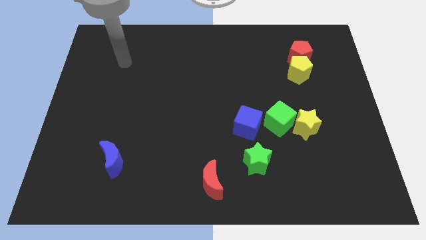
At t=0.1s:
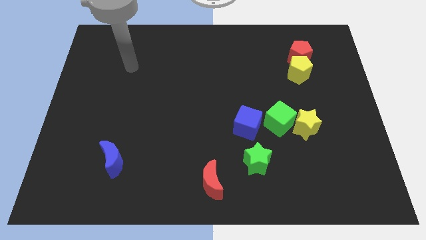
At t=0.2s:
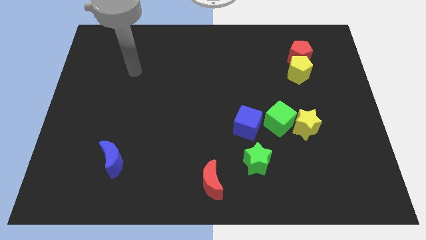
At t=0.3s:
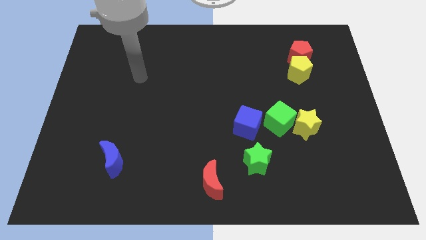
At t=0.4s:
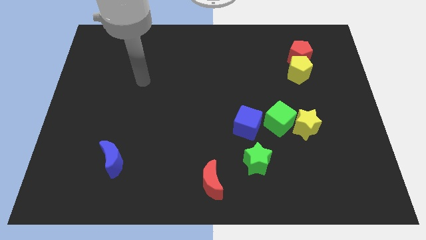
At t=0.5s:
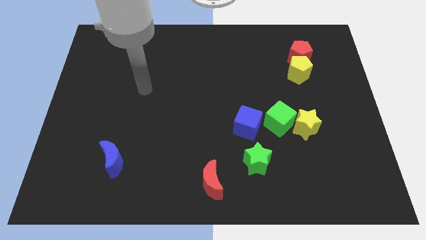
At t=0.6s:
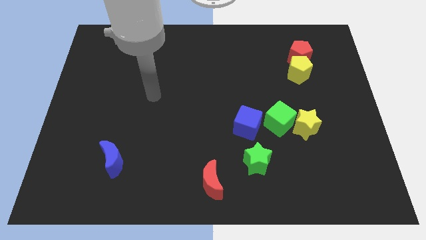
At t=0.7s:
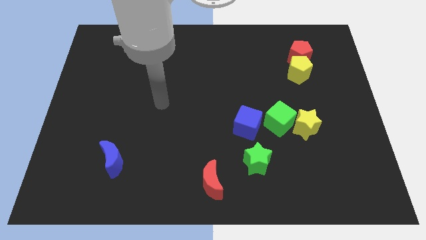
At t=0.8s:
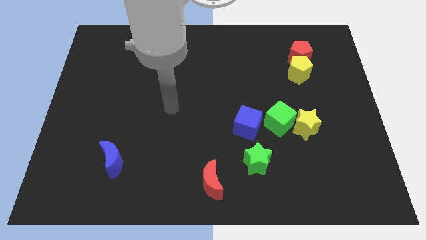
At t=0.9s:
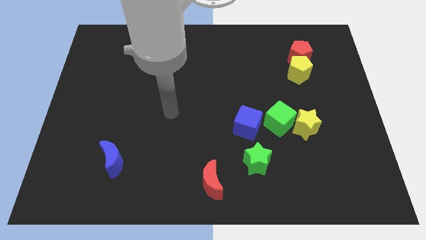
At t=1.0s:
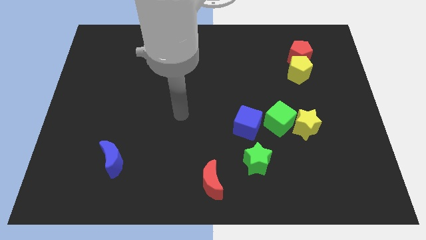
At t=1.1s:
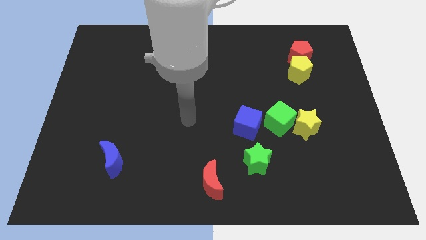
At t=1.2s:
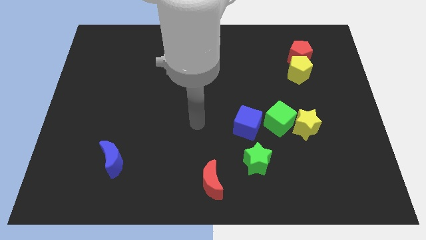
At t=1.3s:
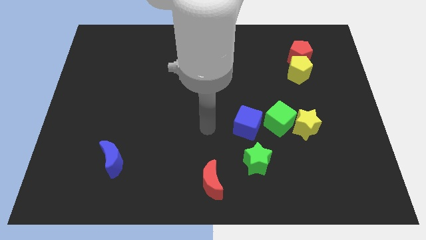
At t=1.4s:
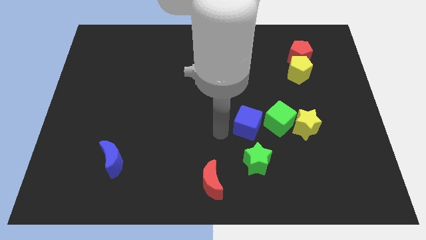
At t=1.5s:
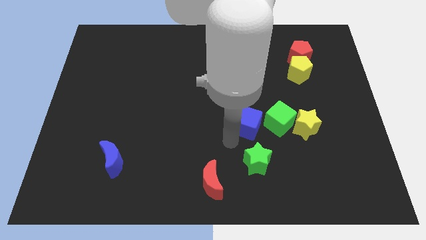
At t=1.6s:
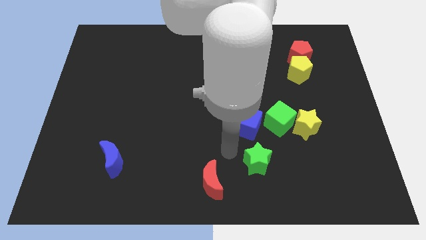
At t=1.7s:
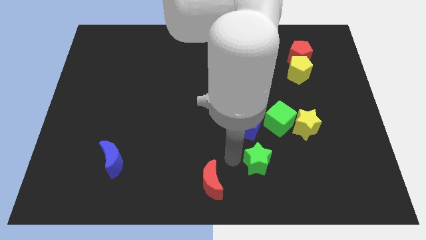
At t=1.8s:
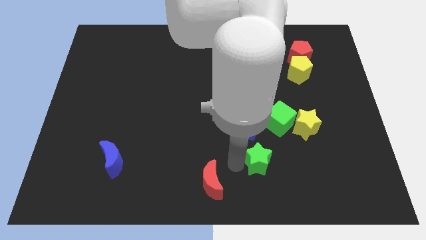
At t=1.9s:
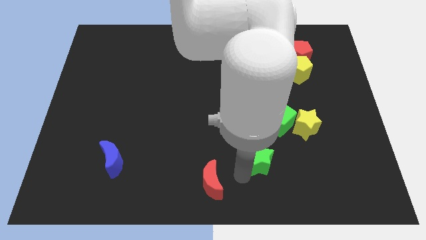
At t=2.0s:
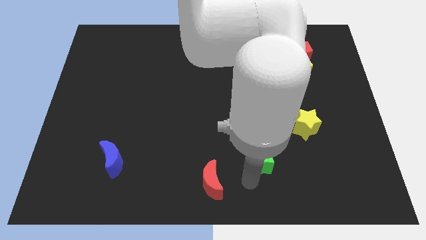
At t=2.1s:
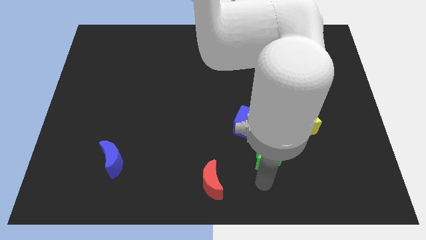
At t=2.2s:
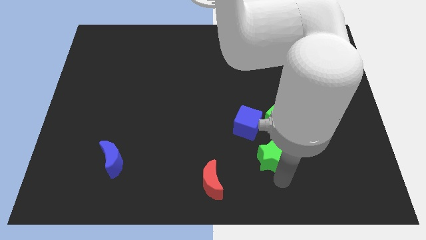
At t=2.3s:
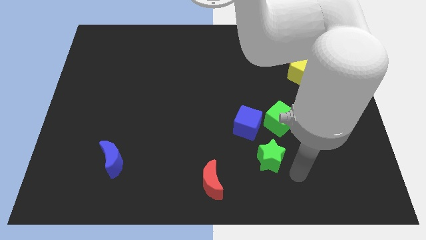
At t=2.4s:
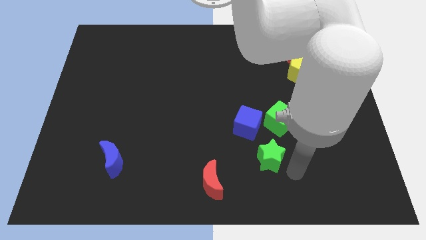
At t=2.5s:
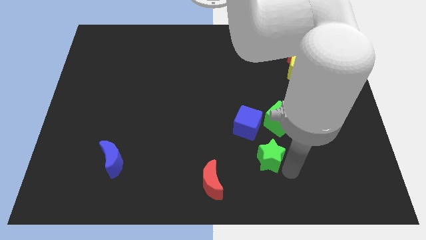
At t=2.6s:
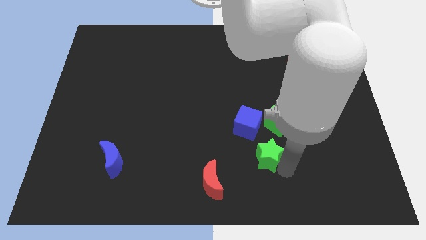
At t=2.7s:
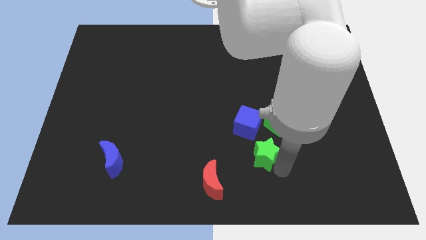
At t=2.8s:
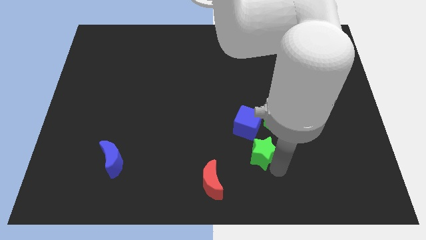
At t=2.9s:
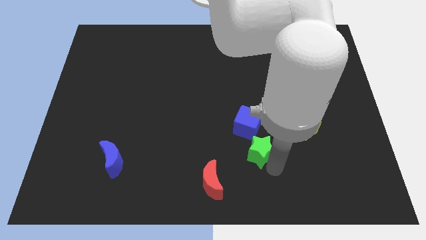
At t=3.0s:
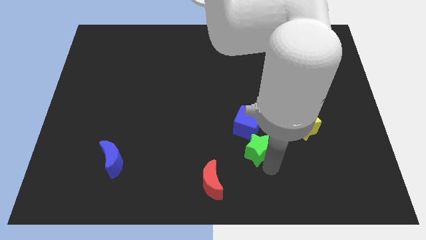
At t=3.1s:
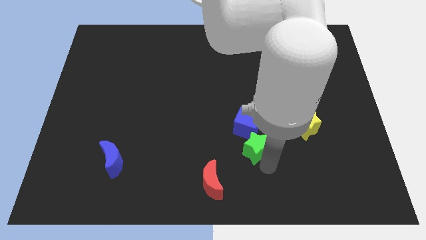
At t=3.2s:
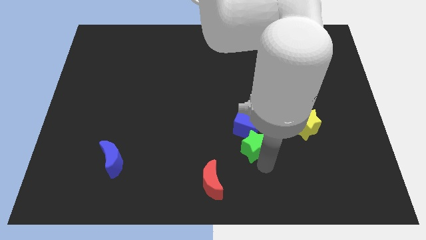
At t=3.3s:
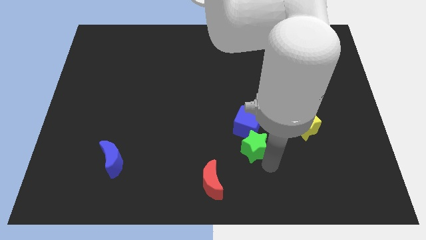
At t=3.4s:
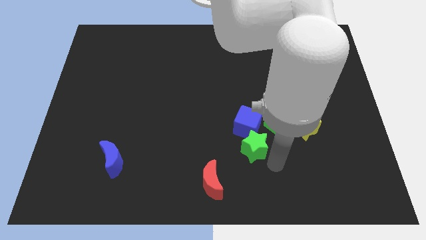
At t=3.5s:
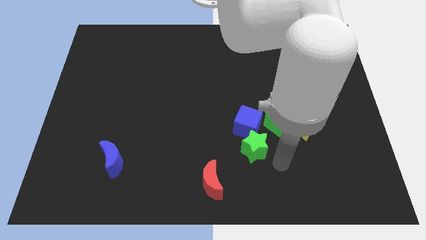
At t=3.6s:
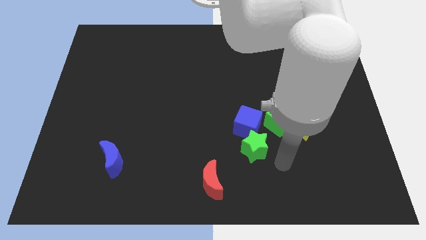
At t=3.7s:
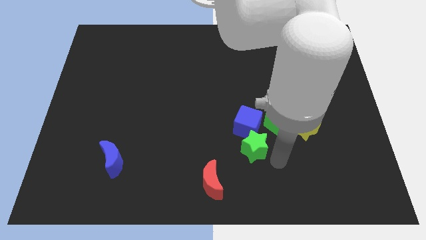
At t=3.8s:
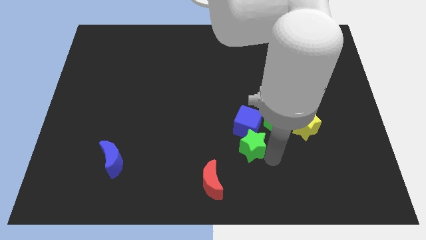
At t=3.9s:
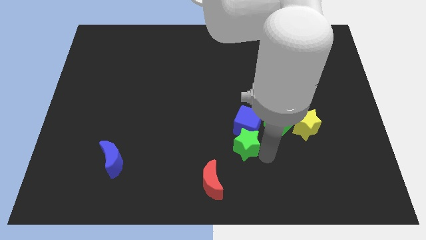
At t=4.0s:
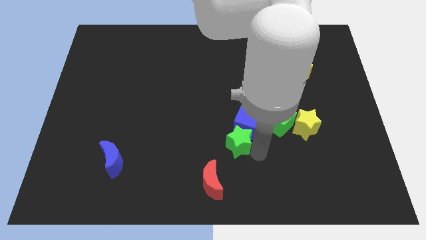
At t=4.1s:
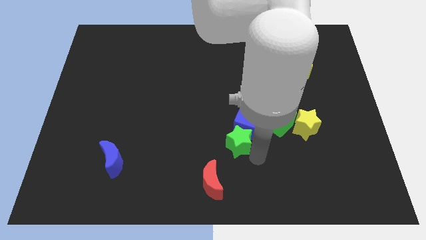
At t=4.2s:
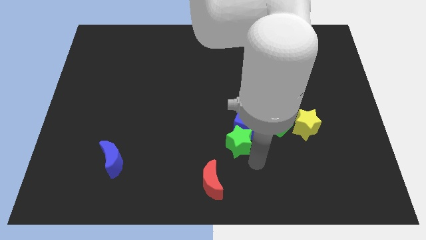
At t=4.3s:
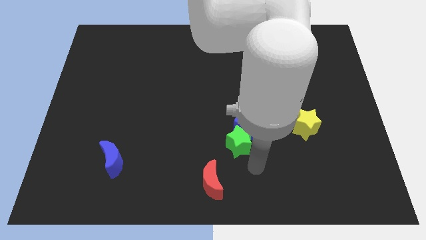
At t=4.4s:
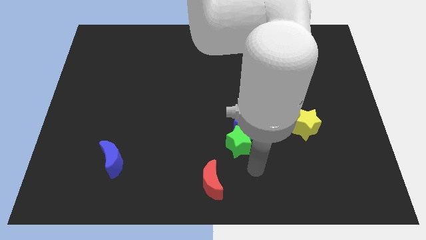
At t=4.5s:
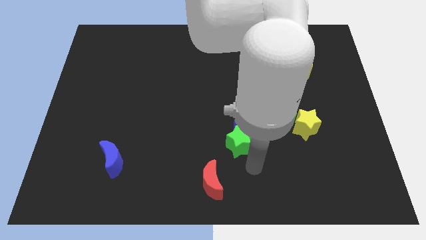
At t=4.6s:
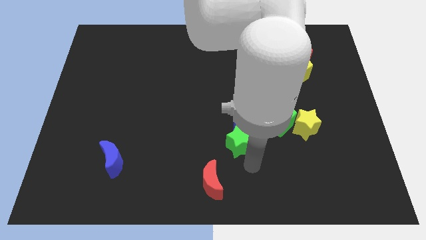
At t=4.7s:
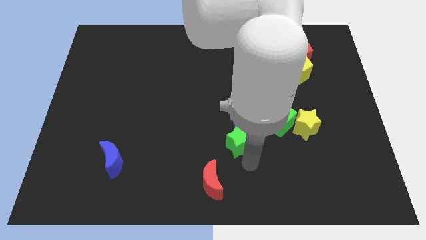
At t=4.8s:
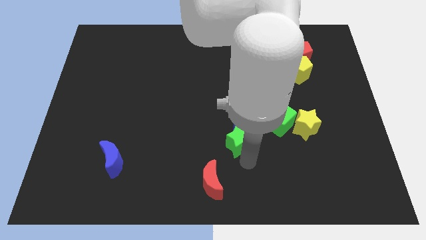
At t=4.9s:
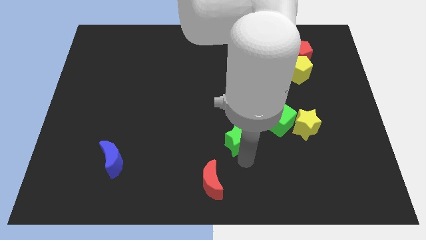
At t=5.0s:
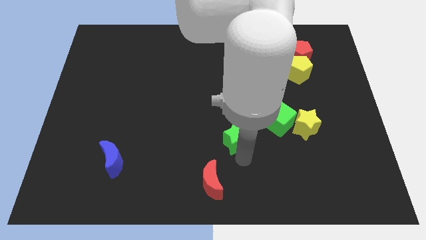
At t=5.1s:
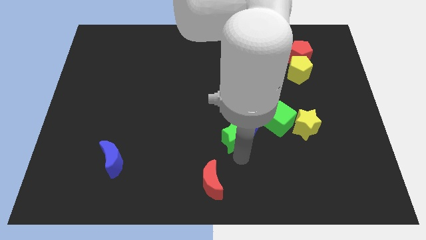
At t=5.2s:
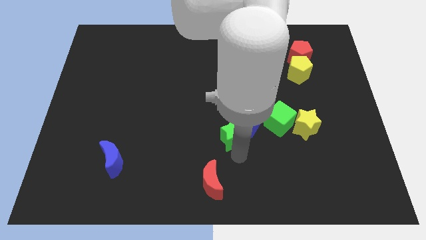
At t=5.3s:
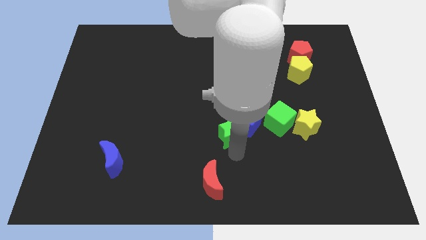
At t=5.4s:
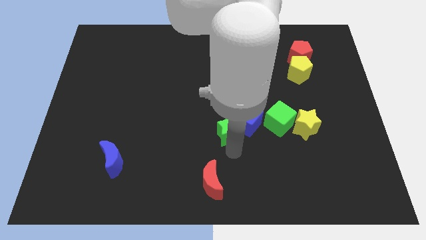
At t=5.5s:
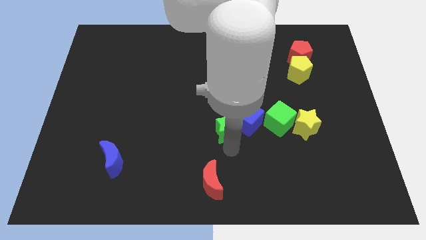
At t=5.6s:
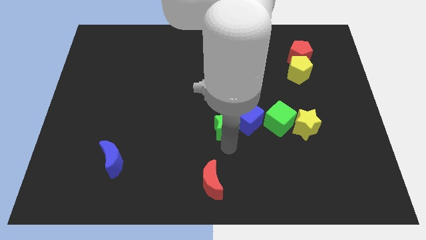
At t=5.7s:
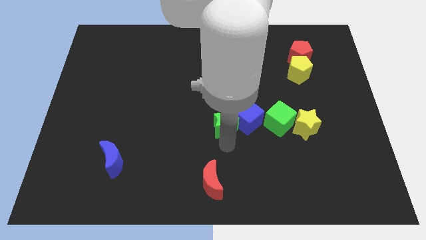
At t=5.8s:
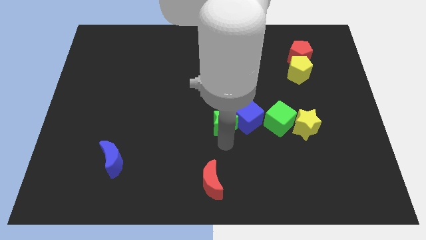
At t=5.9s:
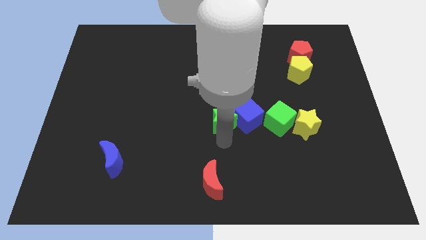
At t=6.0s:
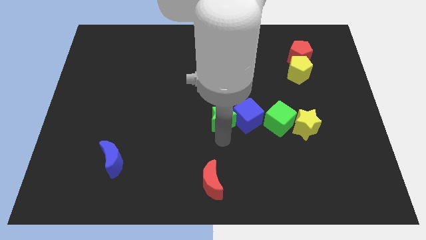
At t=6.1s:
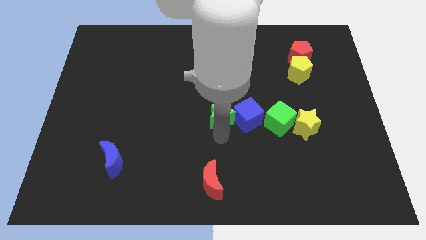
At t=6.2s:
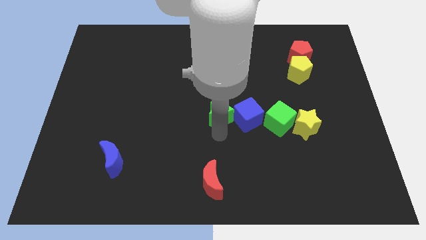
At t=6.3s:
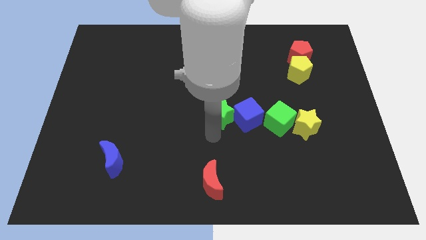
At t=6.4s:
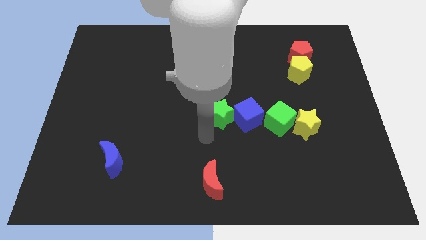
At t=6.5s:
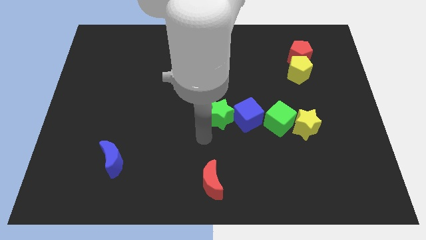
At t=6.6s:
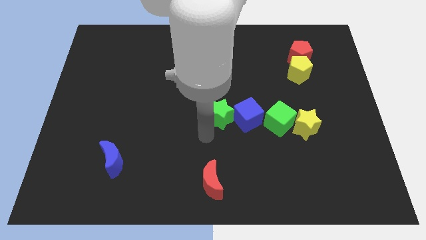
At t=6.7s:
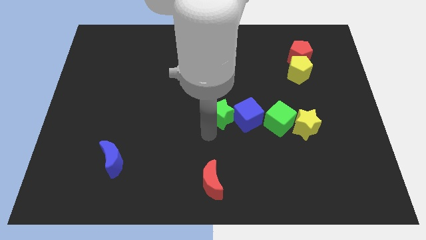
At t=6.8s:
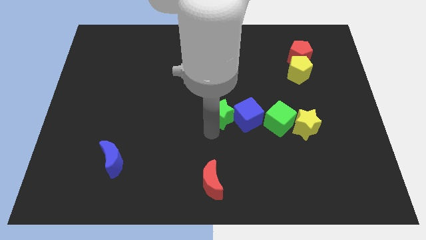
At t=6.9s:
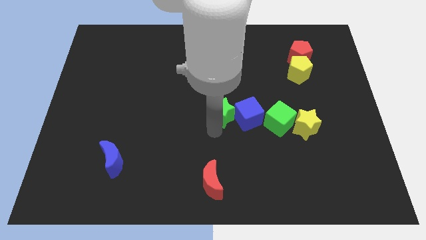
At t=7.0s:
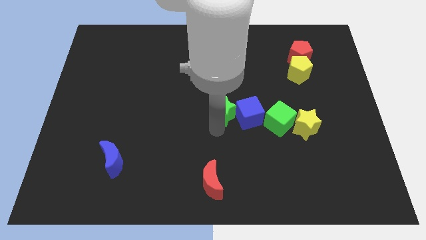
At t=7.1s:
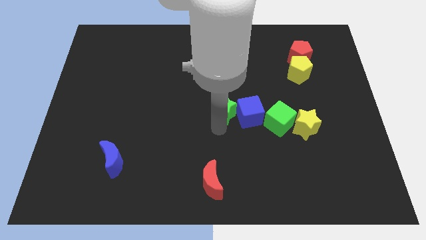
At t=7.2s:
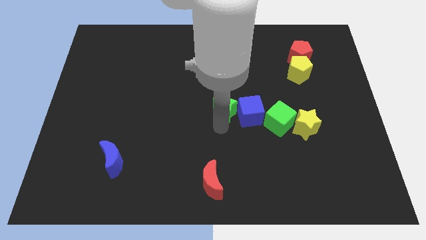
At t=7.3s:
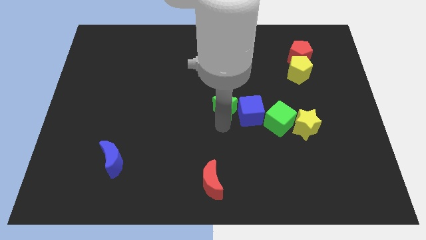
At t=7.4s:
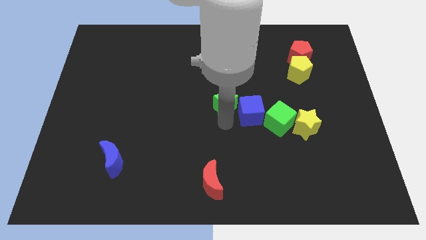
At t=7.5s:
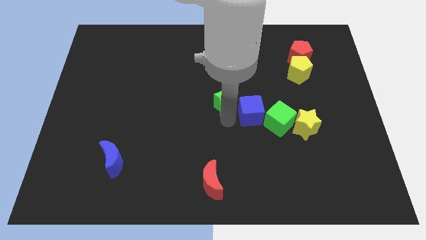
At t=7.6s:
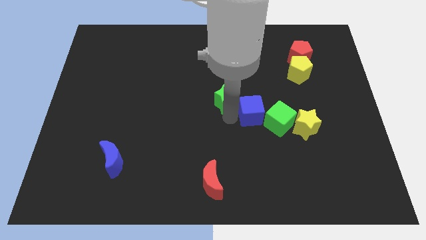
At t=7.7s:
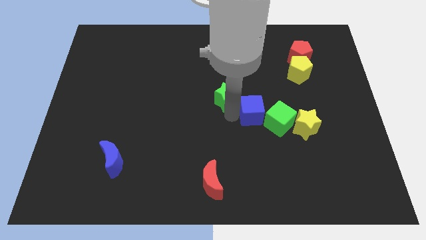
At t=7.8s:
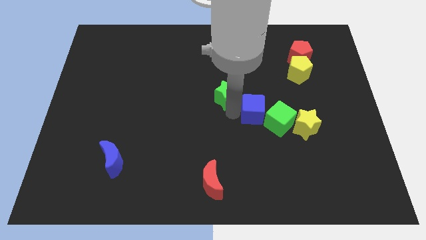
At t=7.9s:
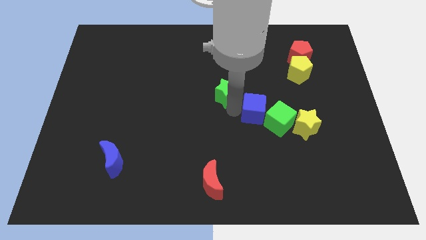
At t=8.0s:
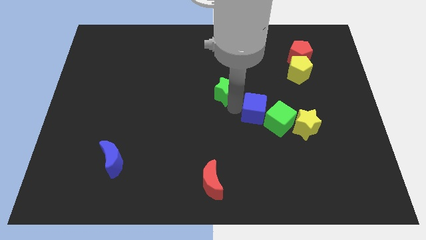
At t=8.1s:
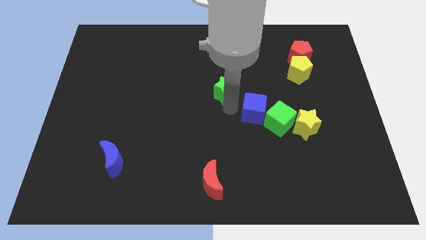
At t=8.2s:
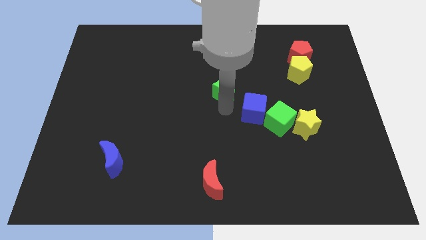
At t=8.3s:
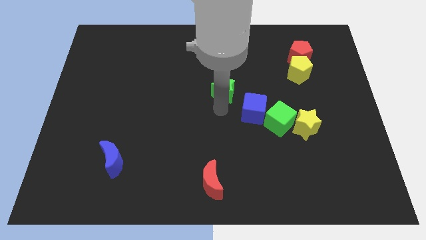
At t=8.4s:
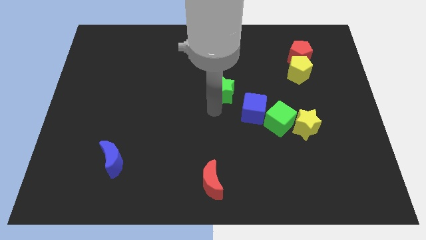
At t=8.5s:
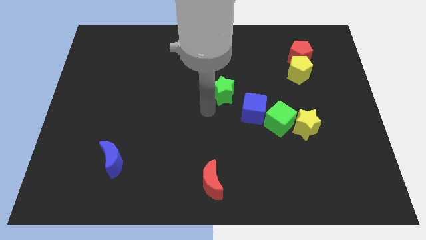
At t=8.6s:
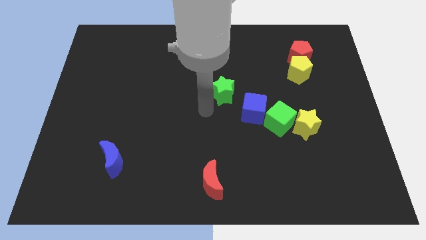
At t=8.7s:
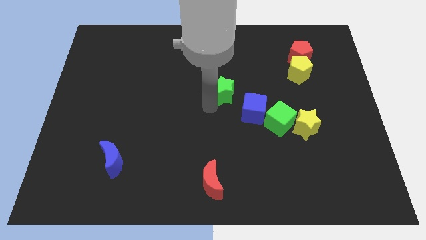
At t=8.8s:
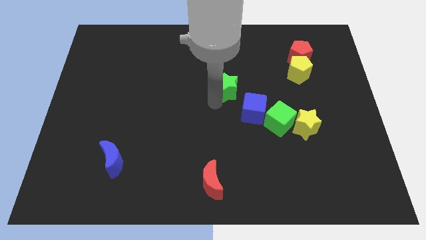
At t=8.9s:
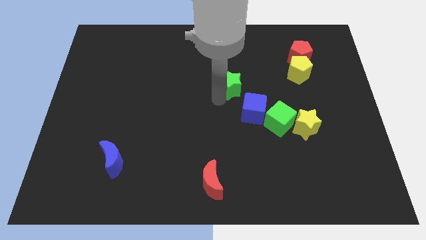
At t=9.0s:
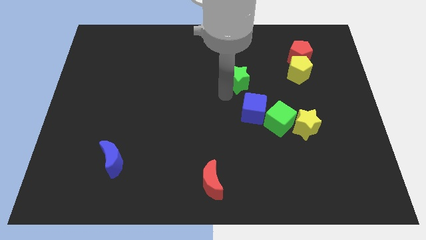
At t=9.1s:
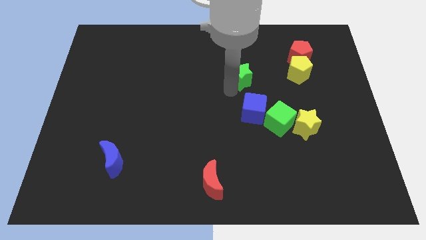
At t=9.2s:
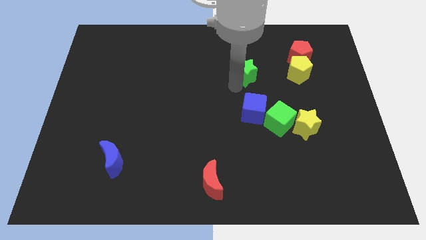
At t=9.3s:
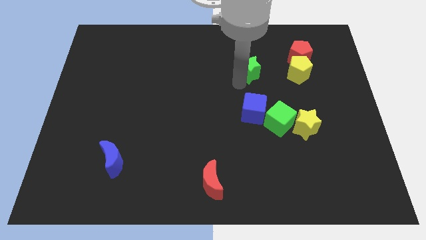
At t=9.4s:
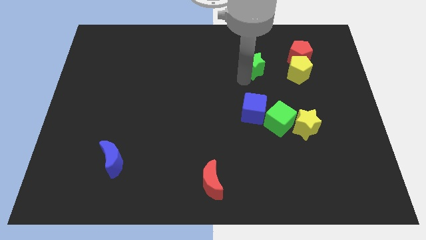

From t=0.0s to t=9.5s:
move the green star left of the red pentagon
